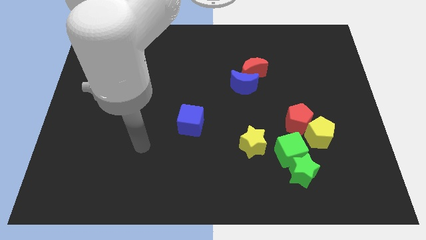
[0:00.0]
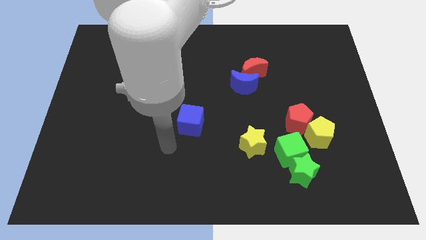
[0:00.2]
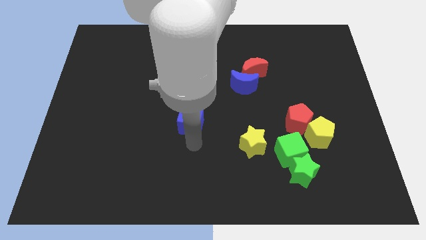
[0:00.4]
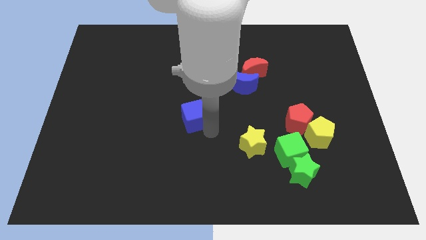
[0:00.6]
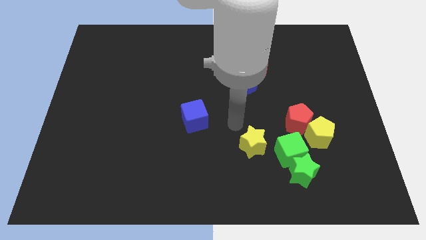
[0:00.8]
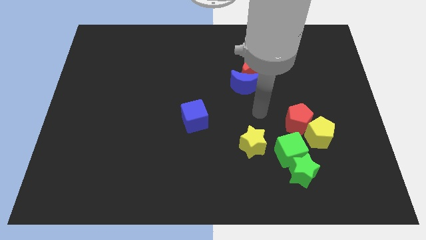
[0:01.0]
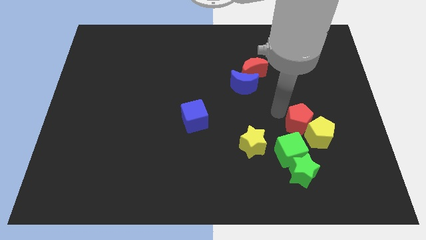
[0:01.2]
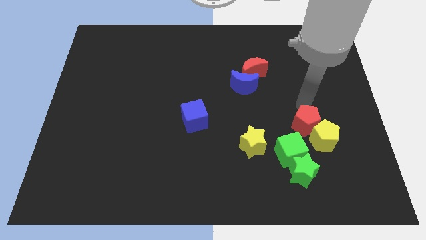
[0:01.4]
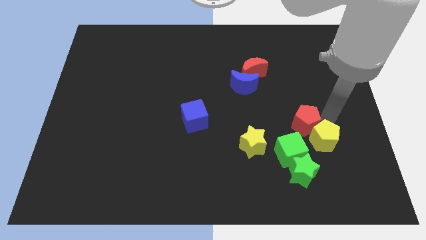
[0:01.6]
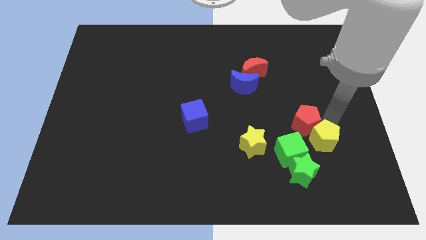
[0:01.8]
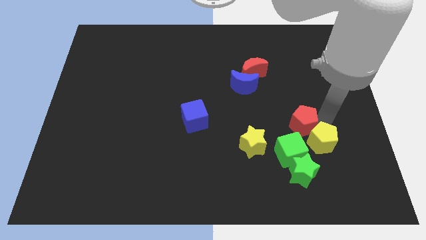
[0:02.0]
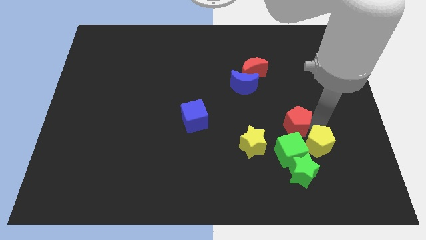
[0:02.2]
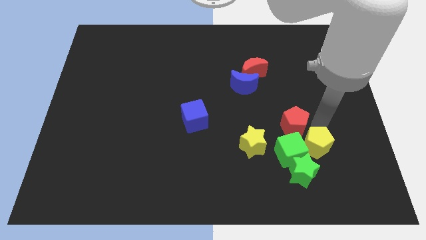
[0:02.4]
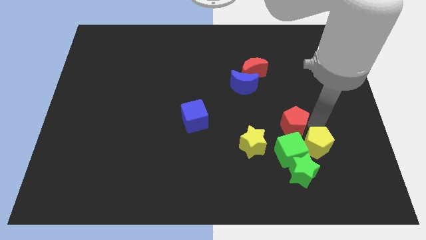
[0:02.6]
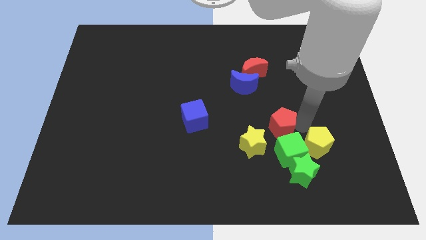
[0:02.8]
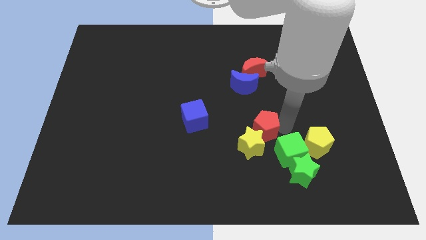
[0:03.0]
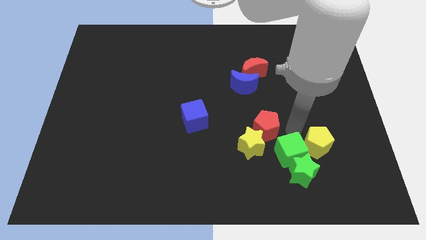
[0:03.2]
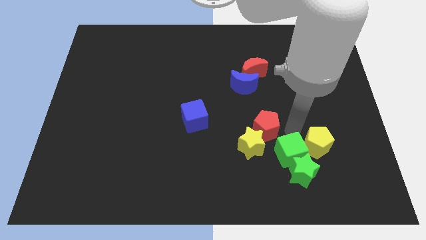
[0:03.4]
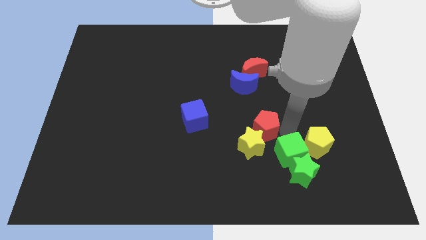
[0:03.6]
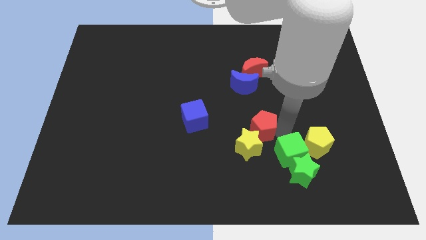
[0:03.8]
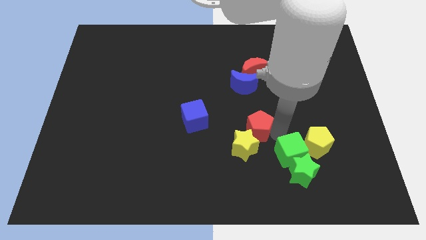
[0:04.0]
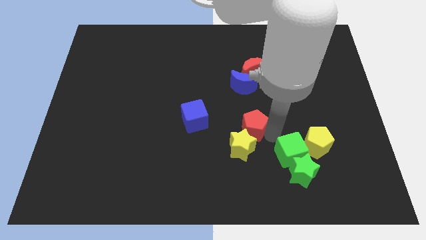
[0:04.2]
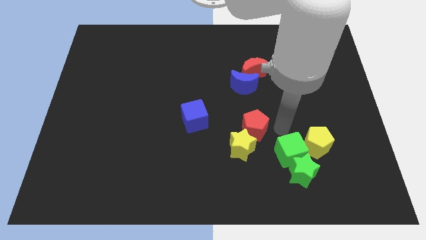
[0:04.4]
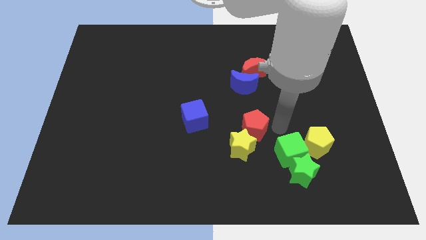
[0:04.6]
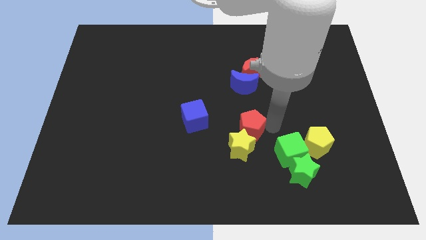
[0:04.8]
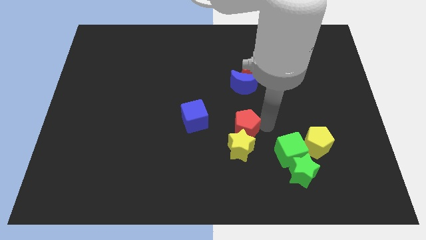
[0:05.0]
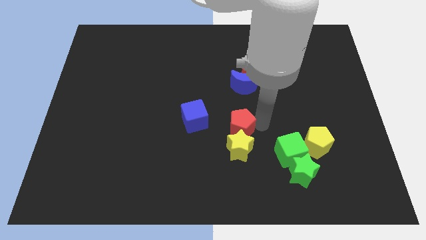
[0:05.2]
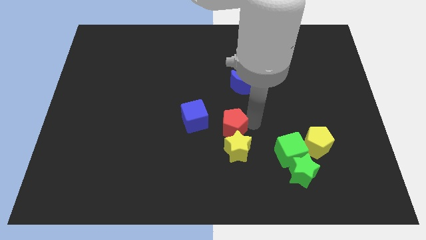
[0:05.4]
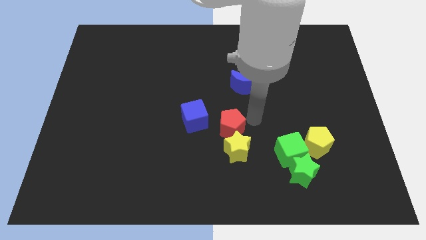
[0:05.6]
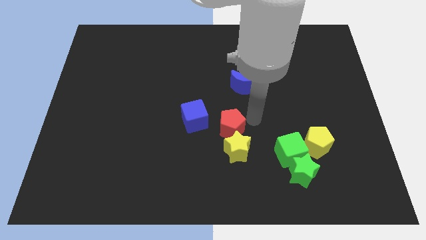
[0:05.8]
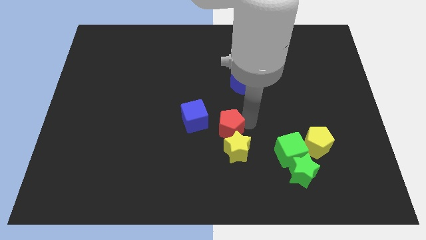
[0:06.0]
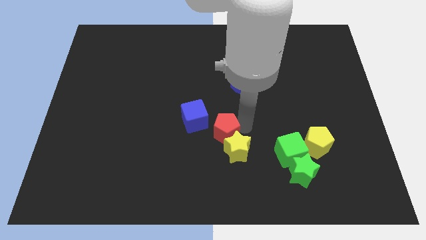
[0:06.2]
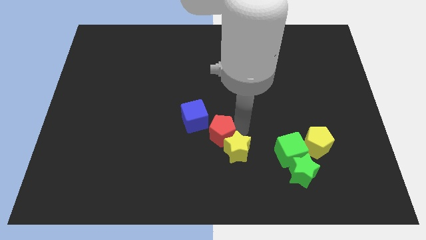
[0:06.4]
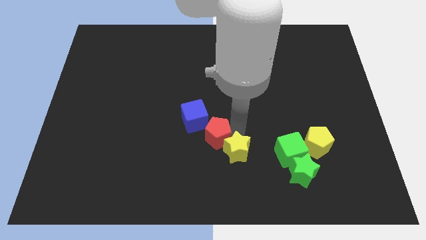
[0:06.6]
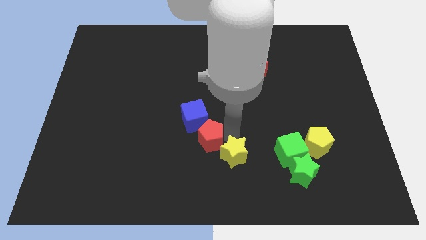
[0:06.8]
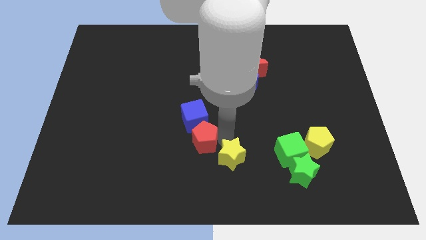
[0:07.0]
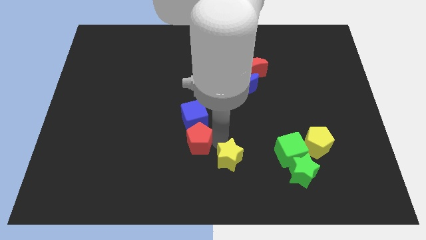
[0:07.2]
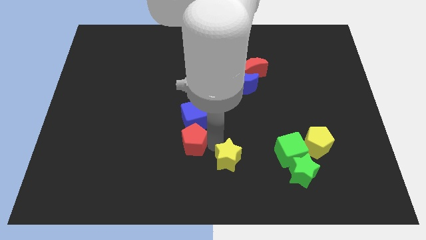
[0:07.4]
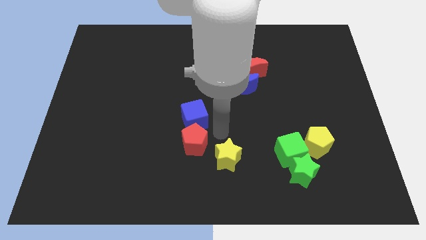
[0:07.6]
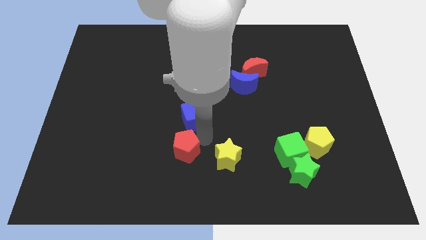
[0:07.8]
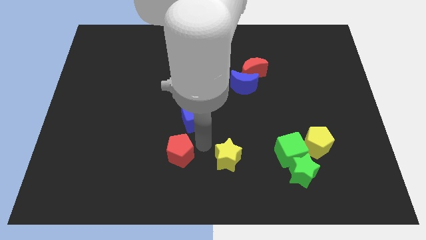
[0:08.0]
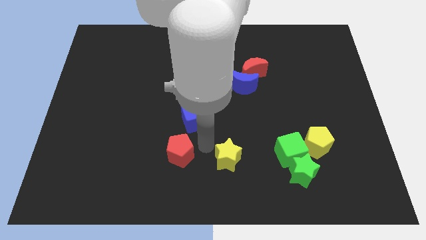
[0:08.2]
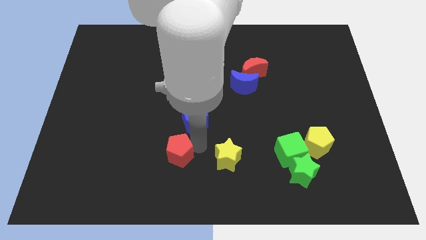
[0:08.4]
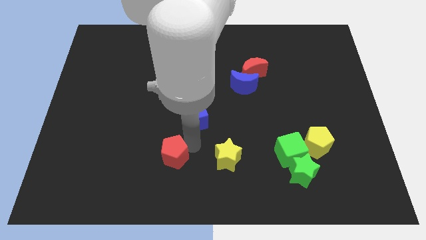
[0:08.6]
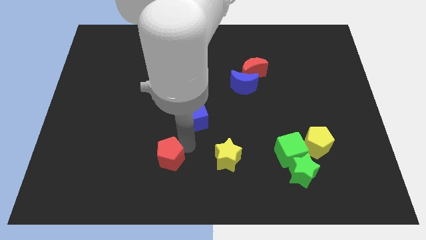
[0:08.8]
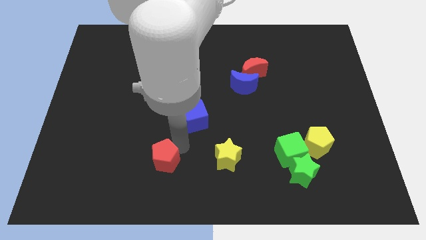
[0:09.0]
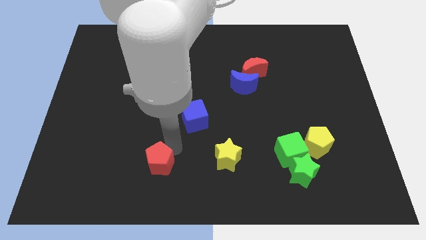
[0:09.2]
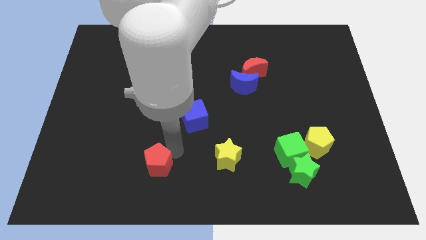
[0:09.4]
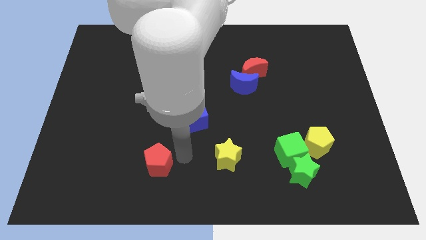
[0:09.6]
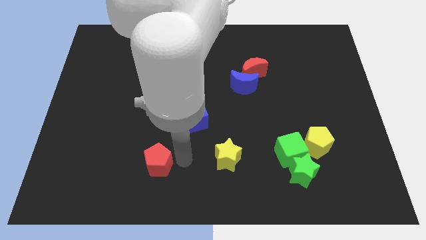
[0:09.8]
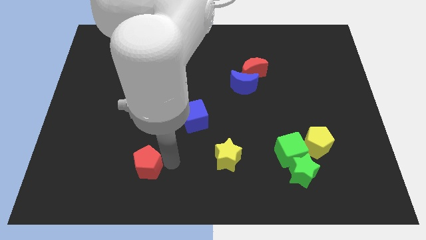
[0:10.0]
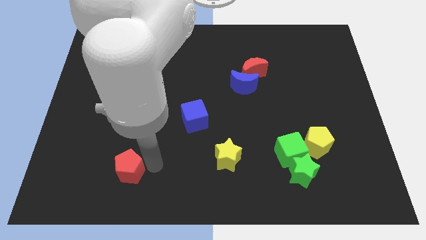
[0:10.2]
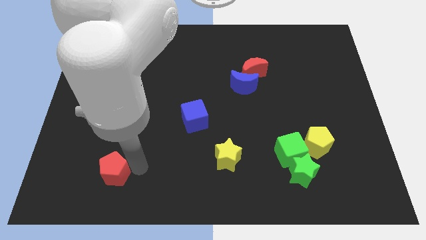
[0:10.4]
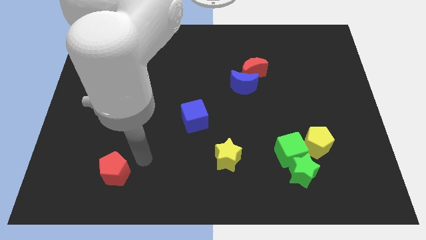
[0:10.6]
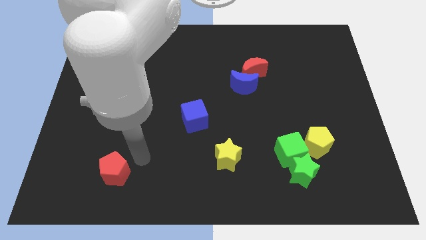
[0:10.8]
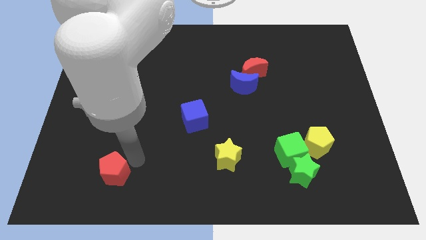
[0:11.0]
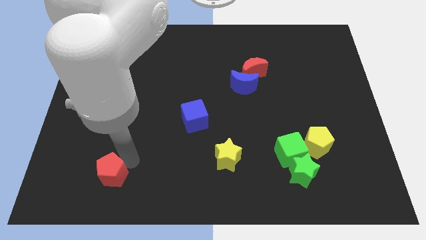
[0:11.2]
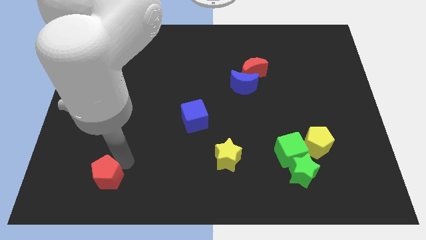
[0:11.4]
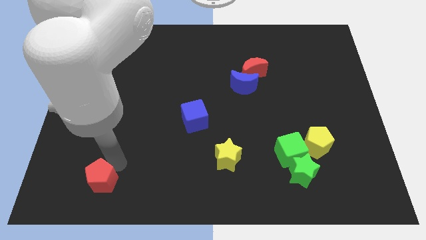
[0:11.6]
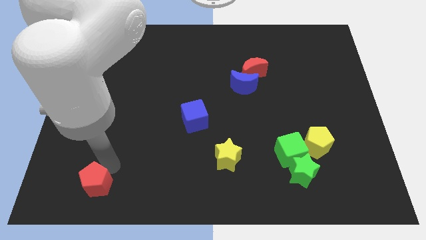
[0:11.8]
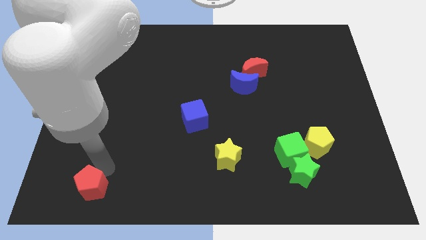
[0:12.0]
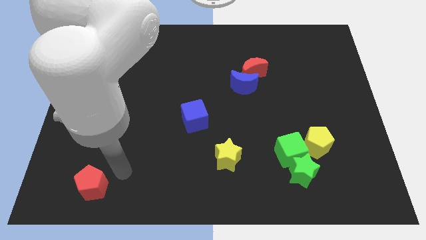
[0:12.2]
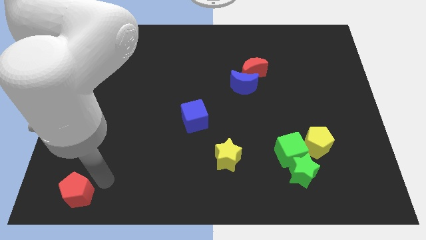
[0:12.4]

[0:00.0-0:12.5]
slide the red pentagon to the bottom left corner
